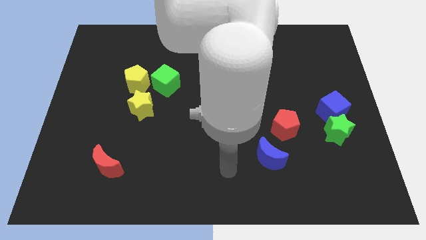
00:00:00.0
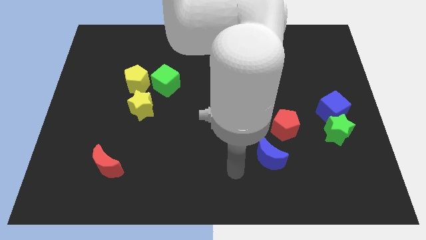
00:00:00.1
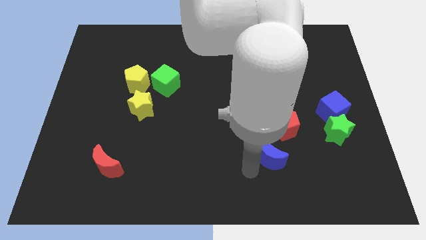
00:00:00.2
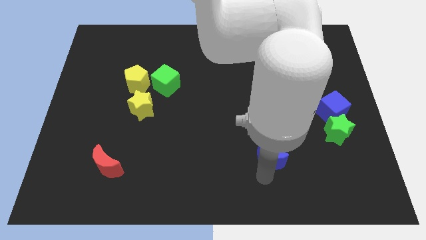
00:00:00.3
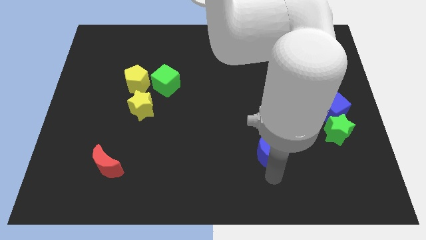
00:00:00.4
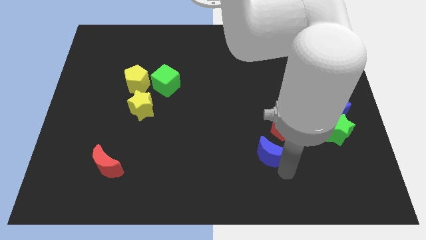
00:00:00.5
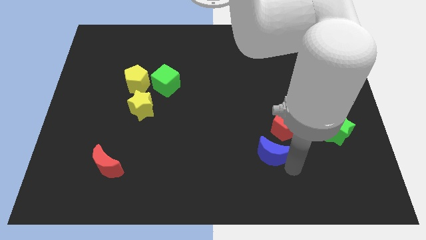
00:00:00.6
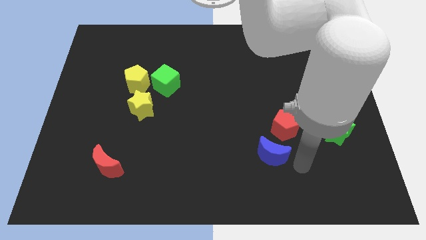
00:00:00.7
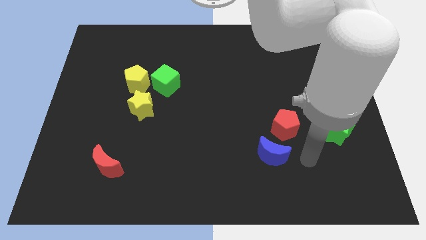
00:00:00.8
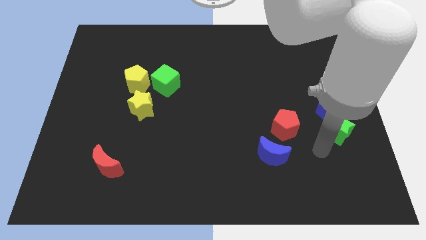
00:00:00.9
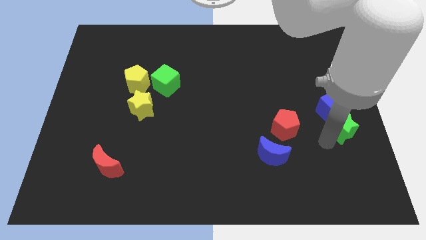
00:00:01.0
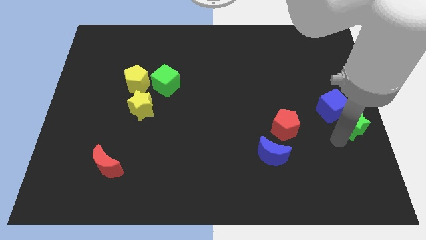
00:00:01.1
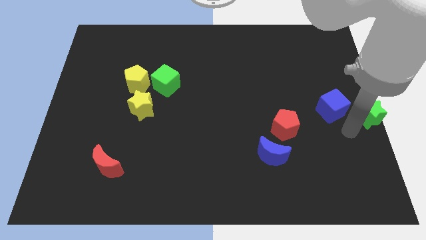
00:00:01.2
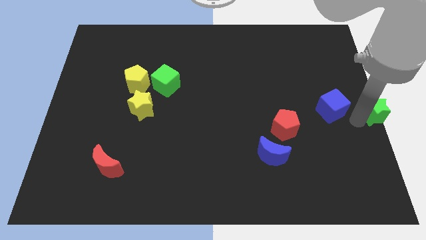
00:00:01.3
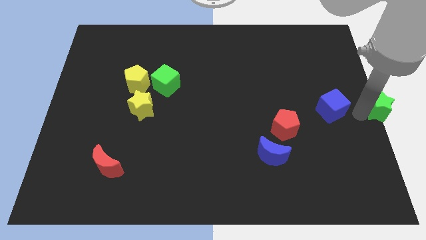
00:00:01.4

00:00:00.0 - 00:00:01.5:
move the blue cube away from the green star

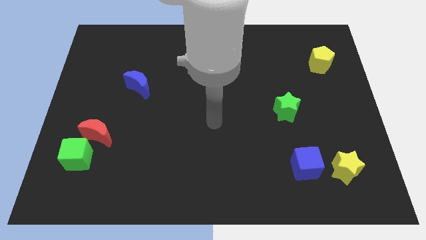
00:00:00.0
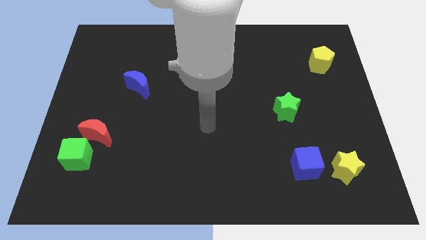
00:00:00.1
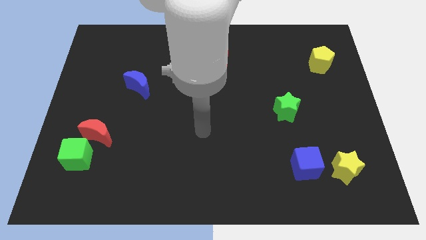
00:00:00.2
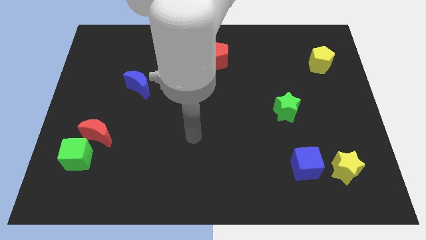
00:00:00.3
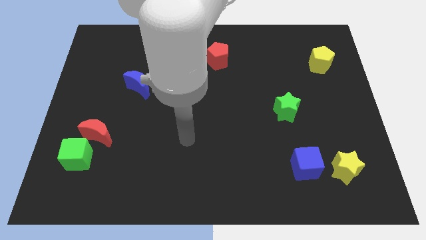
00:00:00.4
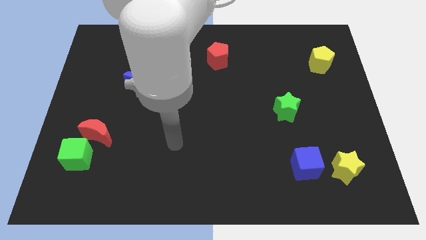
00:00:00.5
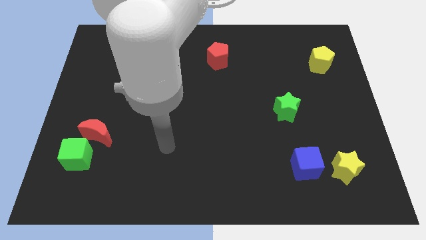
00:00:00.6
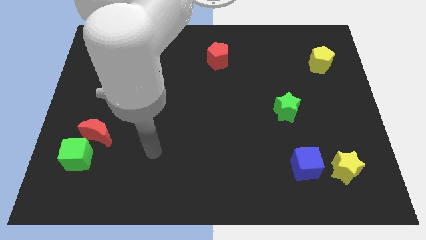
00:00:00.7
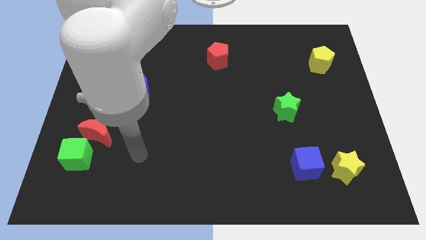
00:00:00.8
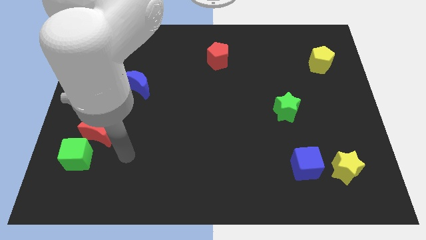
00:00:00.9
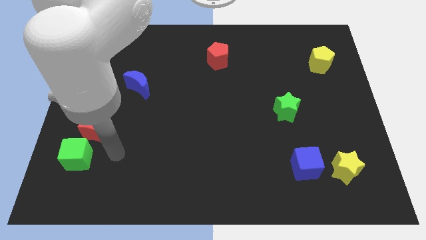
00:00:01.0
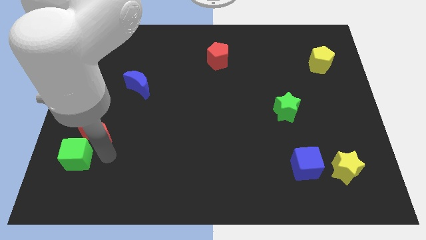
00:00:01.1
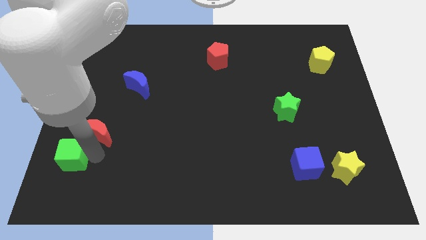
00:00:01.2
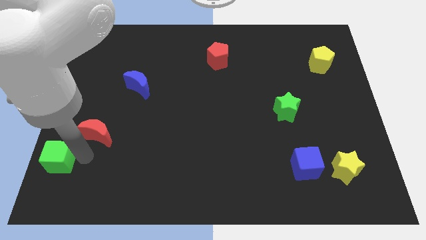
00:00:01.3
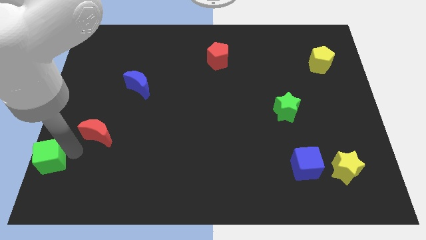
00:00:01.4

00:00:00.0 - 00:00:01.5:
move the red moon away from the green cube

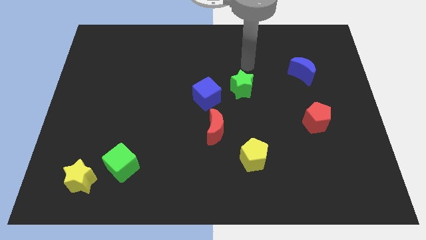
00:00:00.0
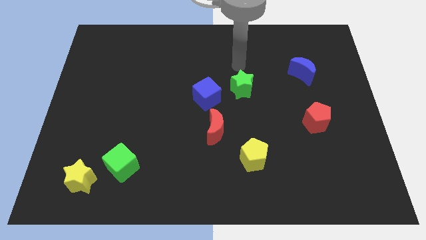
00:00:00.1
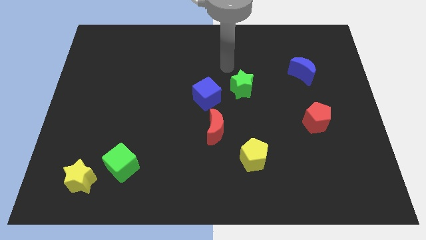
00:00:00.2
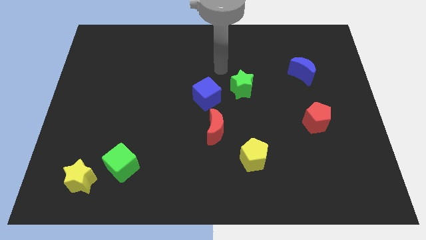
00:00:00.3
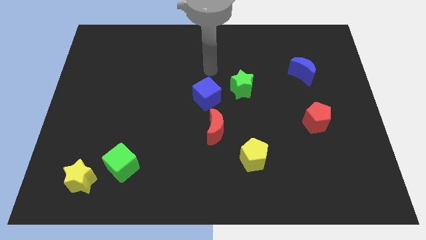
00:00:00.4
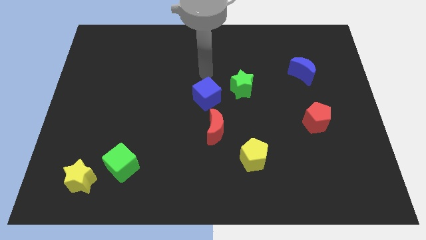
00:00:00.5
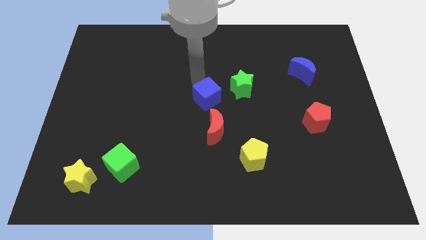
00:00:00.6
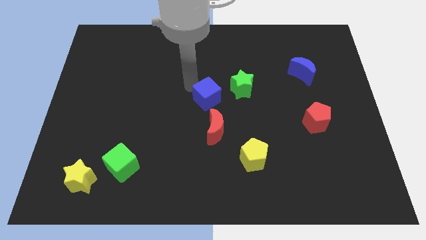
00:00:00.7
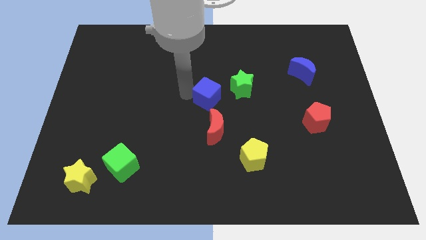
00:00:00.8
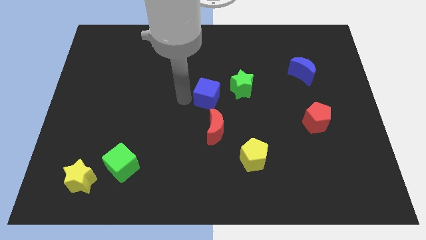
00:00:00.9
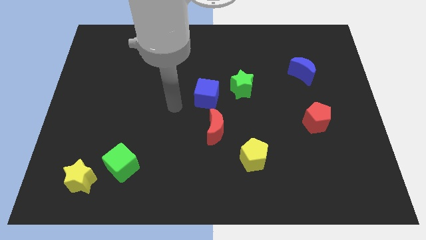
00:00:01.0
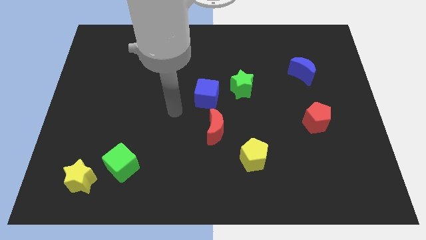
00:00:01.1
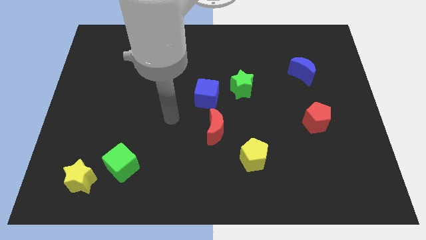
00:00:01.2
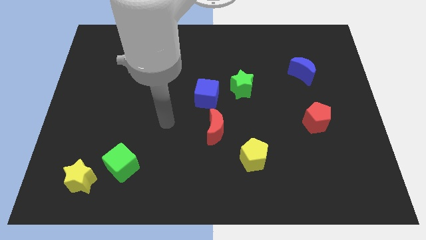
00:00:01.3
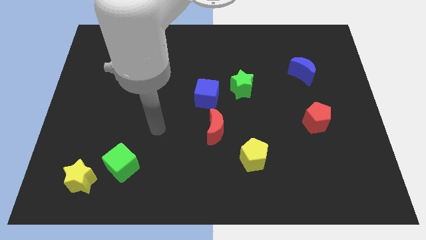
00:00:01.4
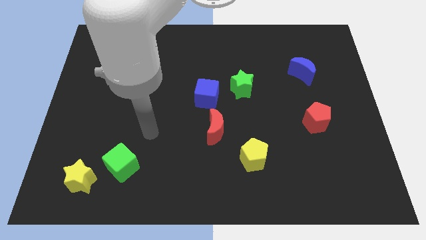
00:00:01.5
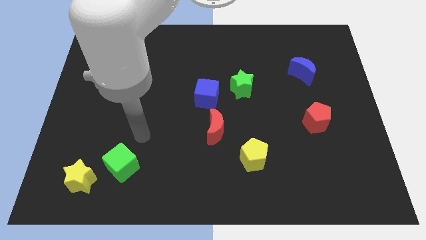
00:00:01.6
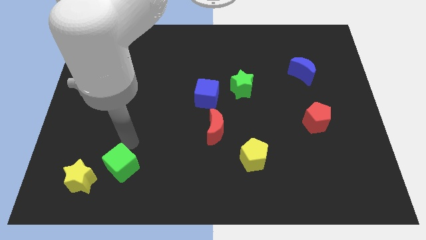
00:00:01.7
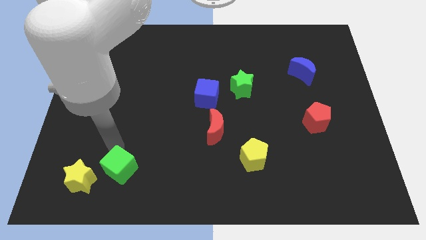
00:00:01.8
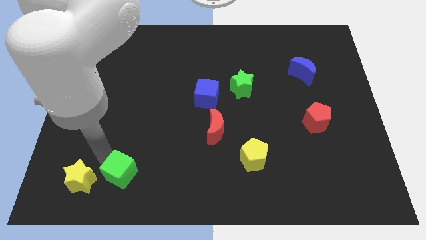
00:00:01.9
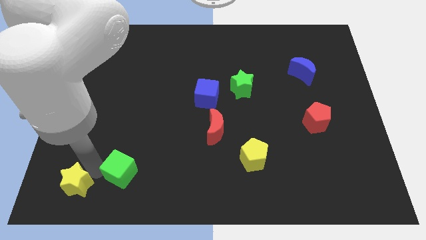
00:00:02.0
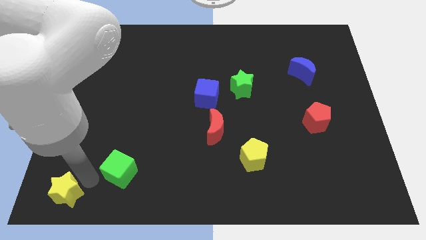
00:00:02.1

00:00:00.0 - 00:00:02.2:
pull the green cube apart from the yellow star

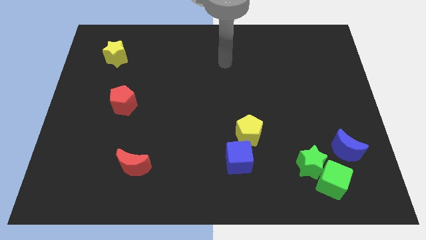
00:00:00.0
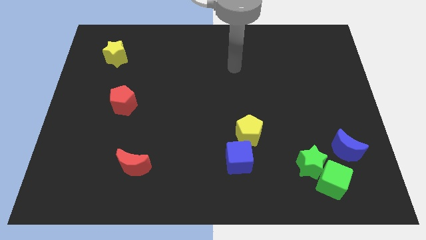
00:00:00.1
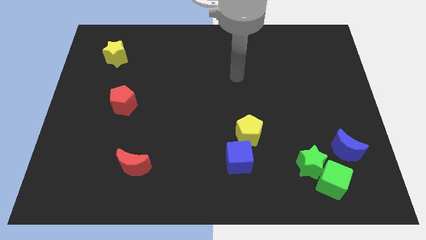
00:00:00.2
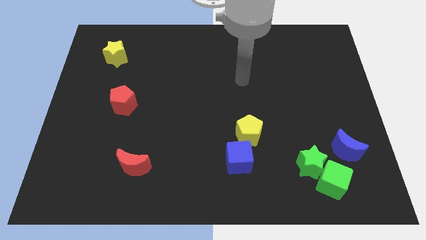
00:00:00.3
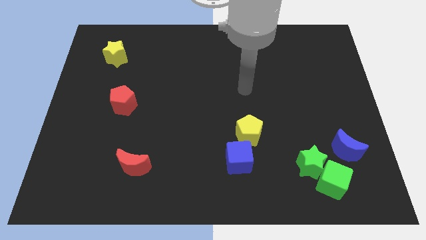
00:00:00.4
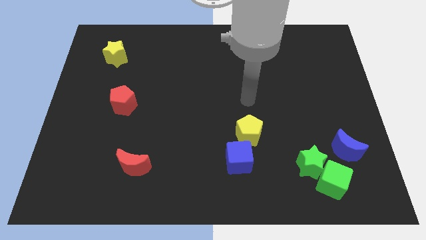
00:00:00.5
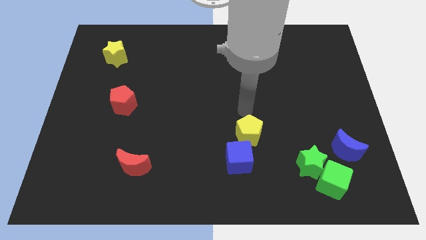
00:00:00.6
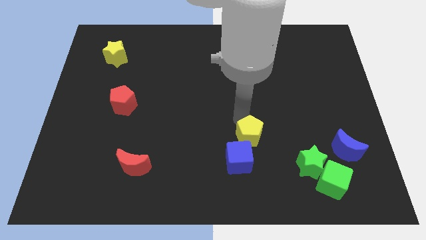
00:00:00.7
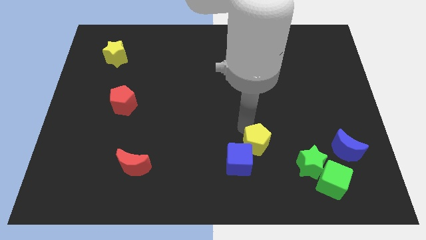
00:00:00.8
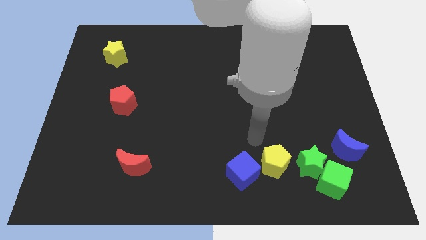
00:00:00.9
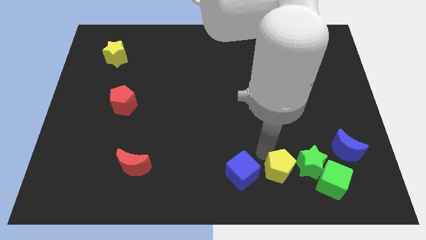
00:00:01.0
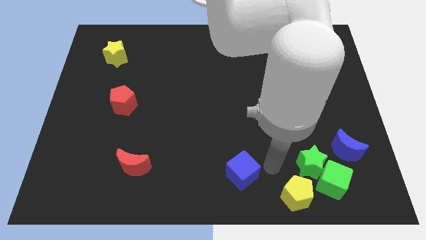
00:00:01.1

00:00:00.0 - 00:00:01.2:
pull the blue cube apart from the yellow pentagon

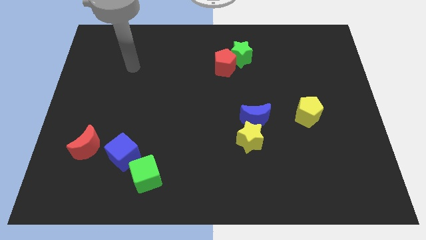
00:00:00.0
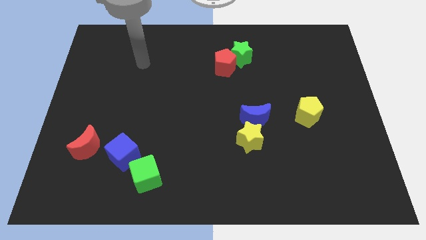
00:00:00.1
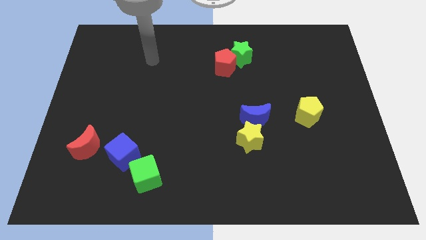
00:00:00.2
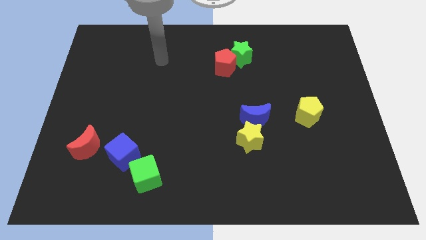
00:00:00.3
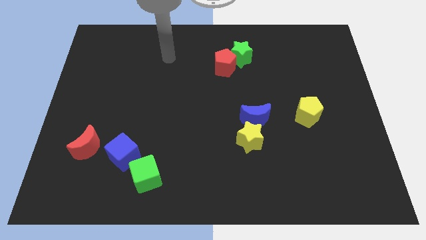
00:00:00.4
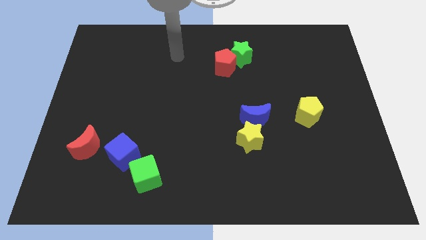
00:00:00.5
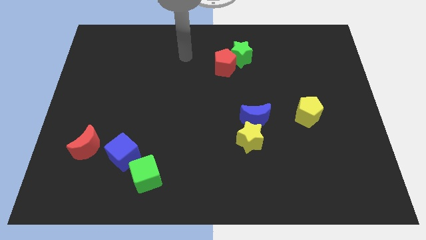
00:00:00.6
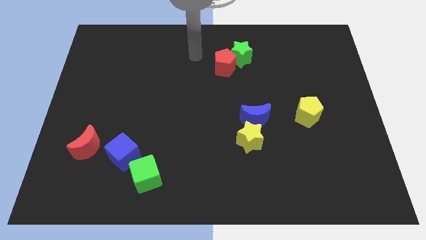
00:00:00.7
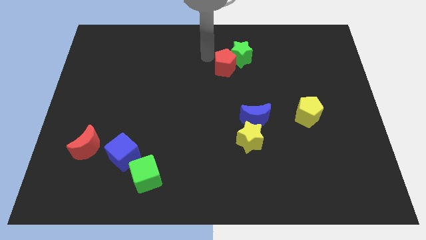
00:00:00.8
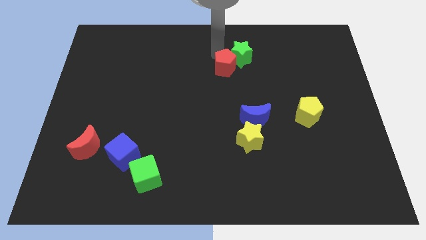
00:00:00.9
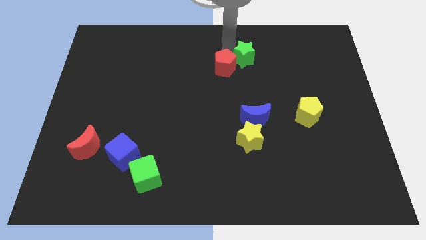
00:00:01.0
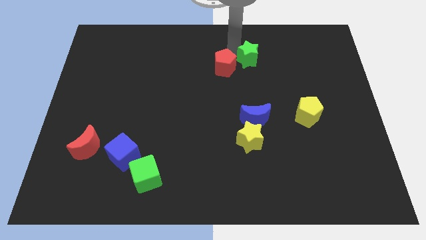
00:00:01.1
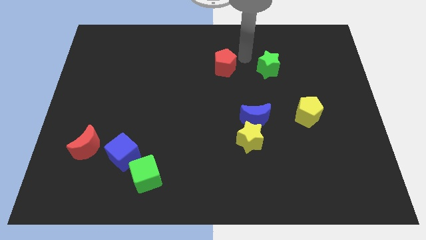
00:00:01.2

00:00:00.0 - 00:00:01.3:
move the red pentagon away from the green star

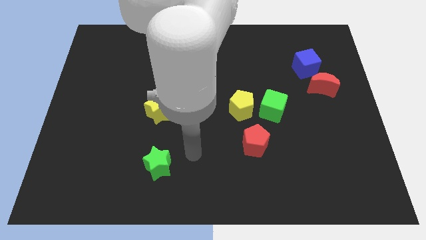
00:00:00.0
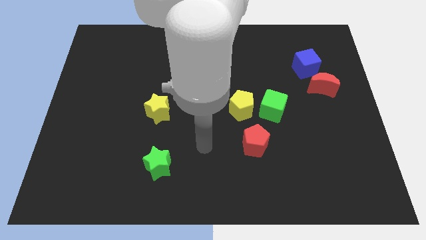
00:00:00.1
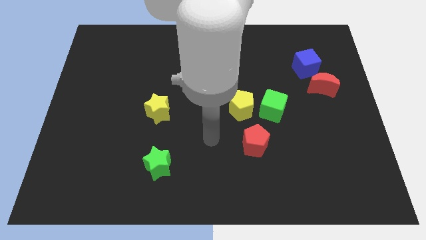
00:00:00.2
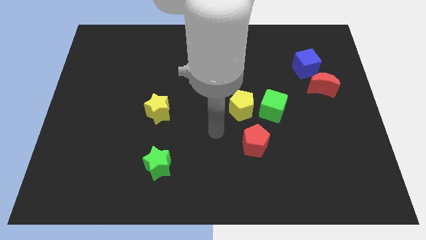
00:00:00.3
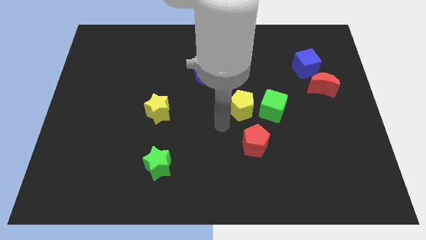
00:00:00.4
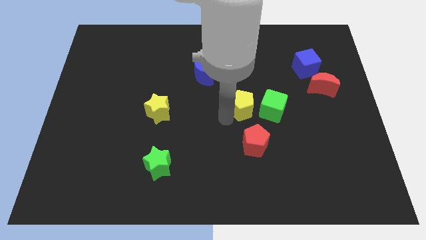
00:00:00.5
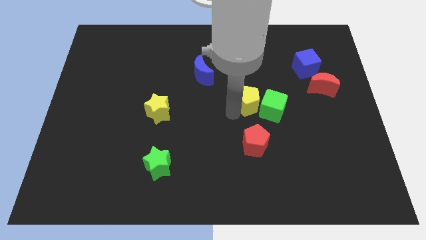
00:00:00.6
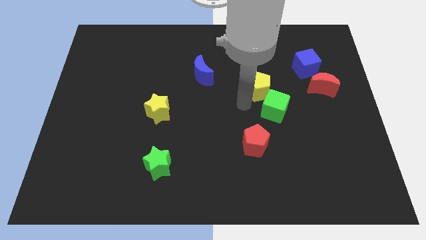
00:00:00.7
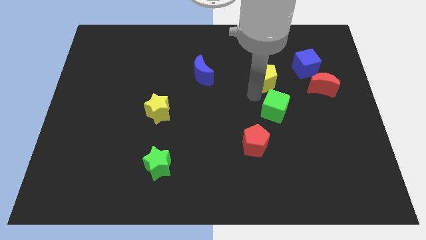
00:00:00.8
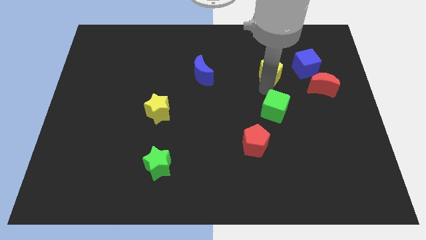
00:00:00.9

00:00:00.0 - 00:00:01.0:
separate the green cube from the yellow pentagon

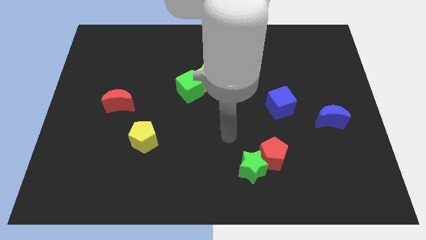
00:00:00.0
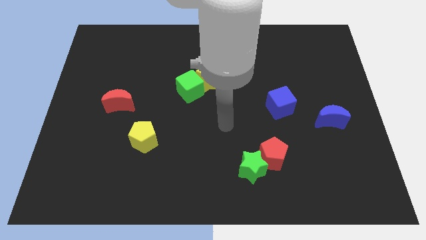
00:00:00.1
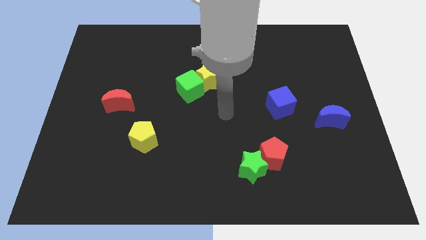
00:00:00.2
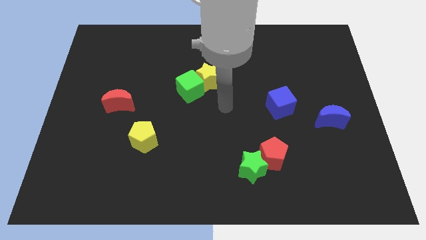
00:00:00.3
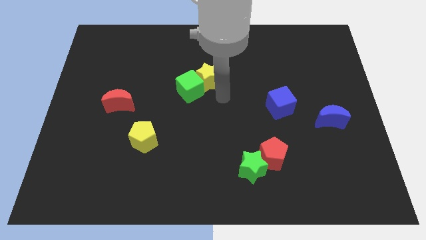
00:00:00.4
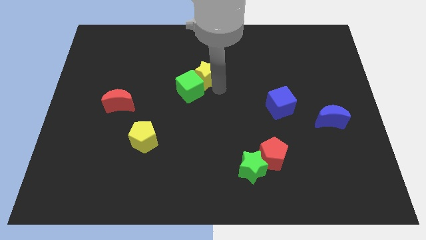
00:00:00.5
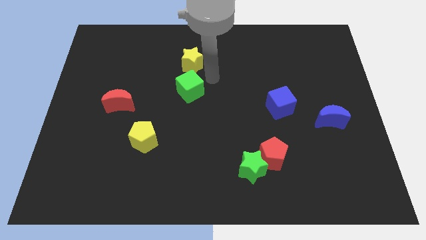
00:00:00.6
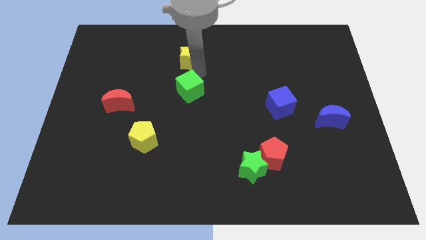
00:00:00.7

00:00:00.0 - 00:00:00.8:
separate the green cube from the yellow star
